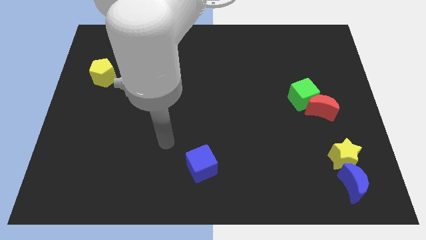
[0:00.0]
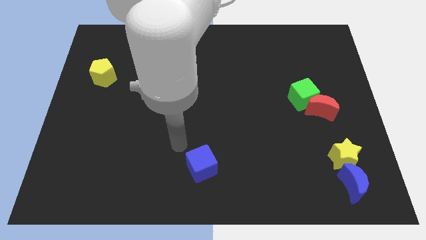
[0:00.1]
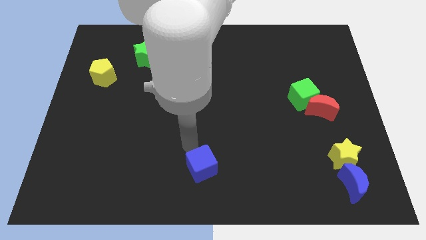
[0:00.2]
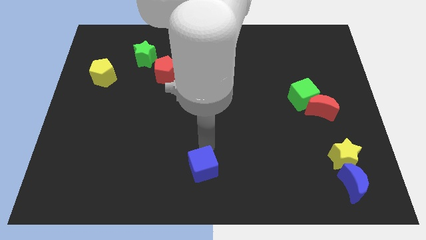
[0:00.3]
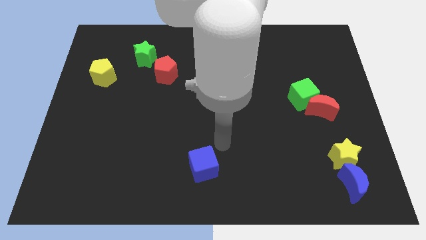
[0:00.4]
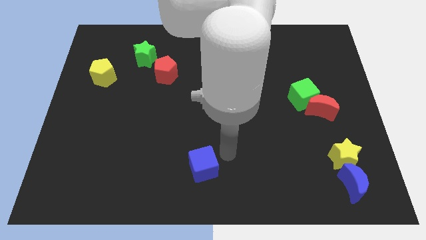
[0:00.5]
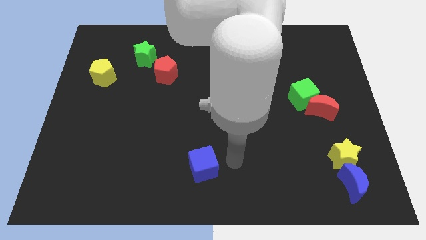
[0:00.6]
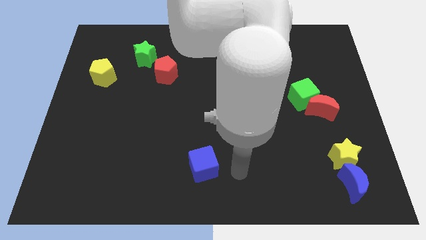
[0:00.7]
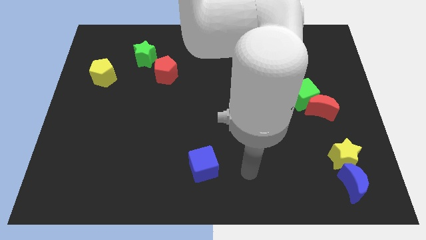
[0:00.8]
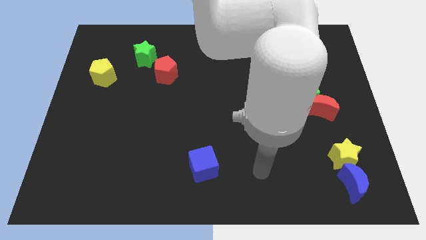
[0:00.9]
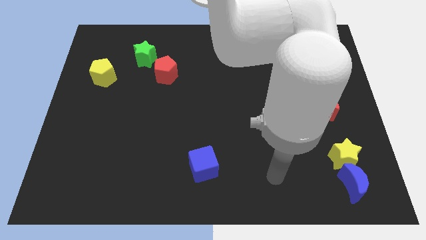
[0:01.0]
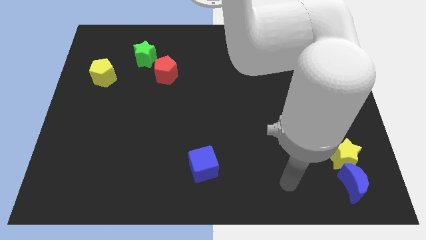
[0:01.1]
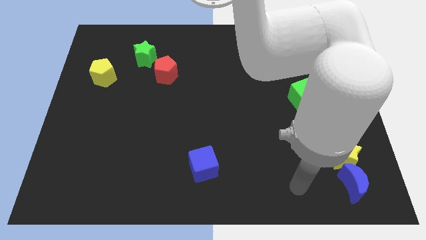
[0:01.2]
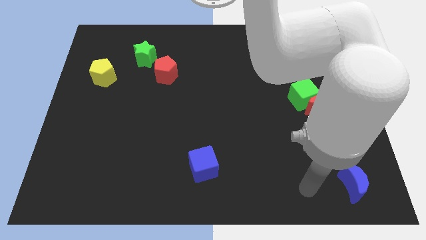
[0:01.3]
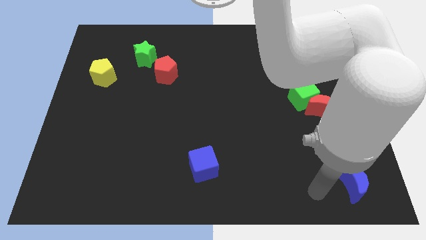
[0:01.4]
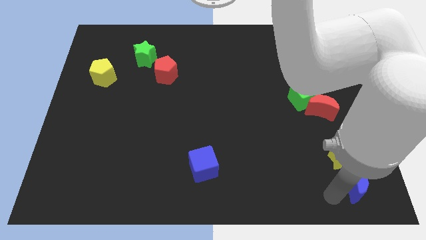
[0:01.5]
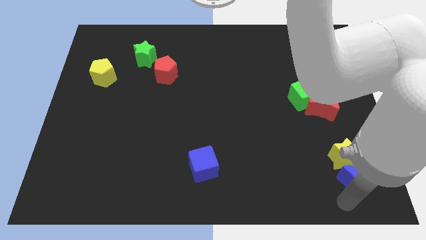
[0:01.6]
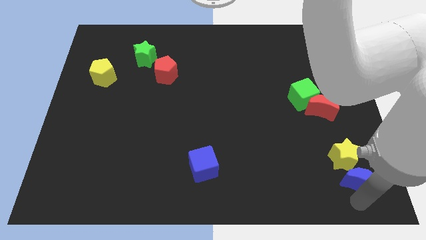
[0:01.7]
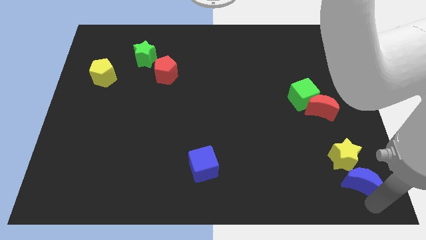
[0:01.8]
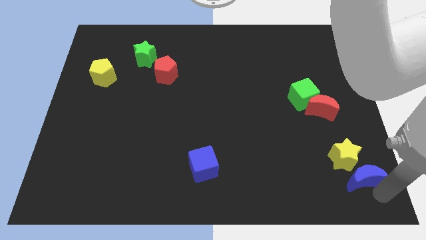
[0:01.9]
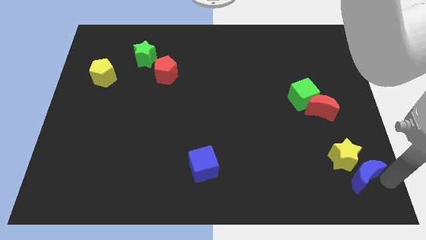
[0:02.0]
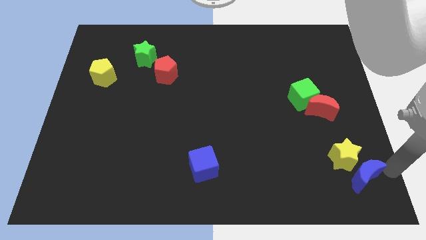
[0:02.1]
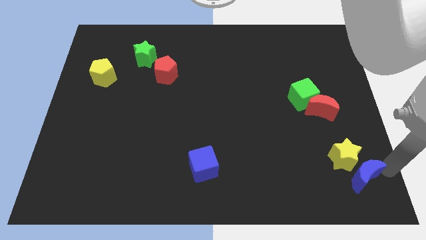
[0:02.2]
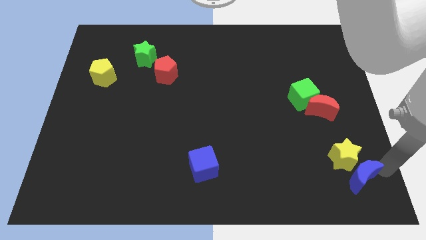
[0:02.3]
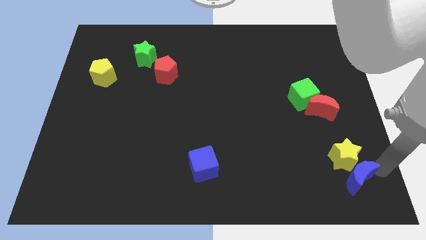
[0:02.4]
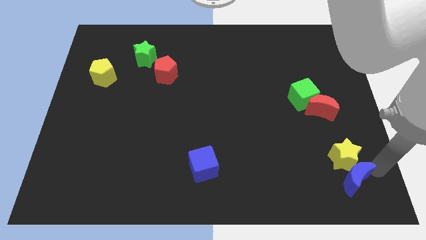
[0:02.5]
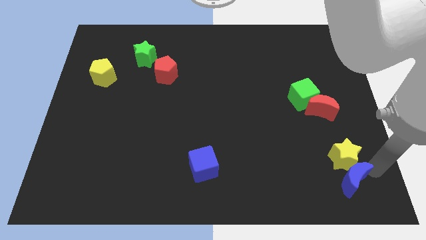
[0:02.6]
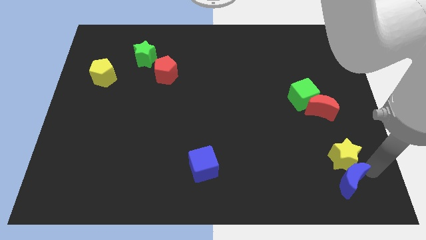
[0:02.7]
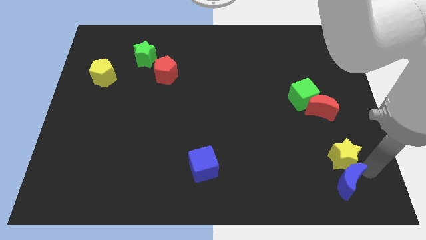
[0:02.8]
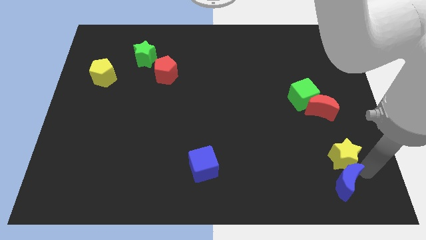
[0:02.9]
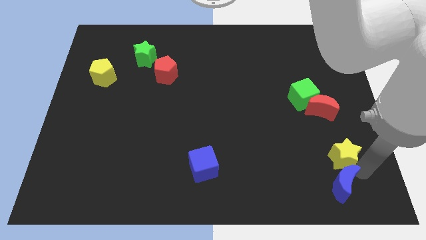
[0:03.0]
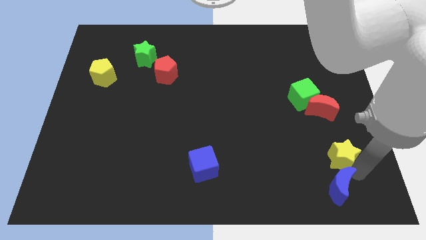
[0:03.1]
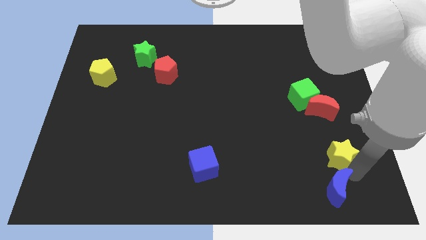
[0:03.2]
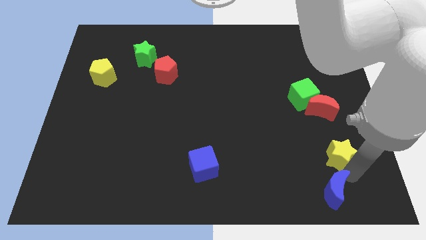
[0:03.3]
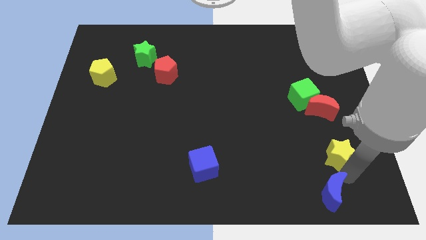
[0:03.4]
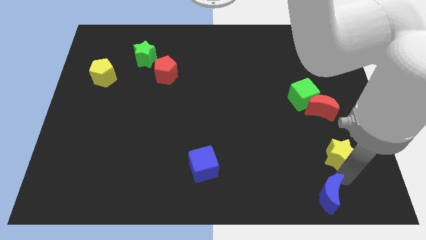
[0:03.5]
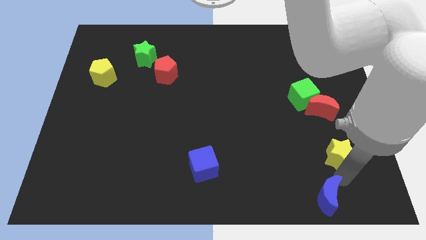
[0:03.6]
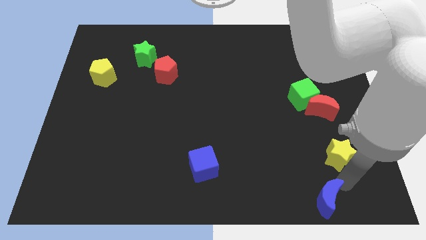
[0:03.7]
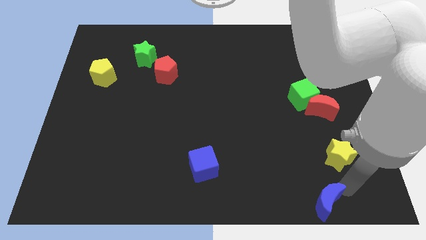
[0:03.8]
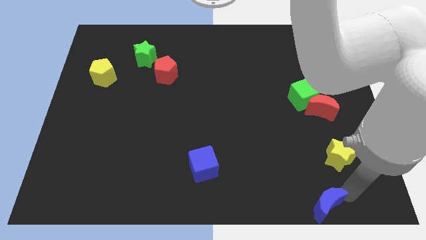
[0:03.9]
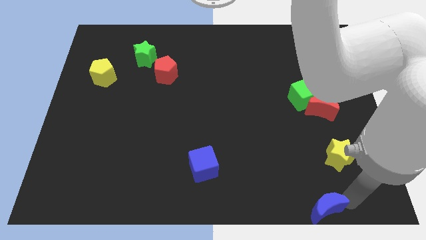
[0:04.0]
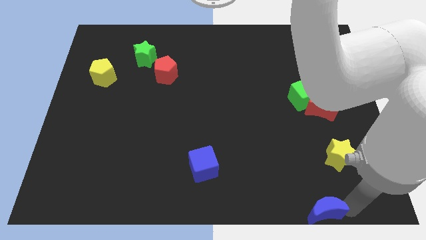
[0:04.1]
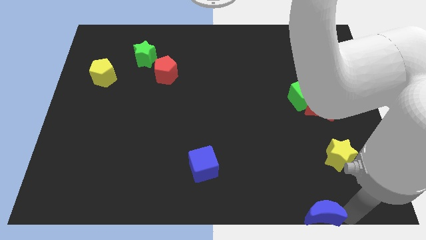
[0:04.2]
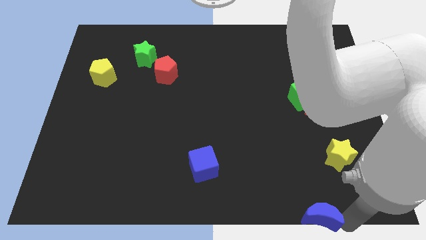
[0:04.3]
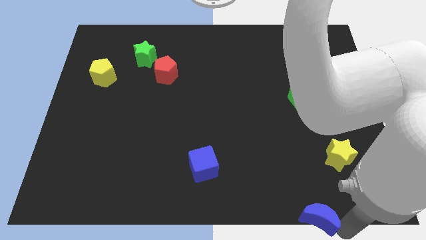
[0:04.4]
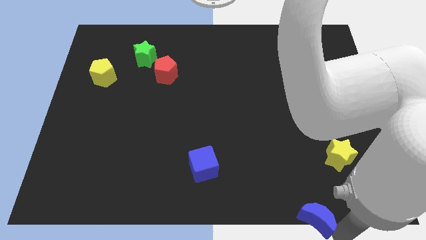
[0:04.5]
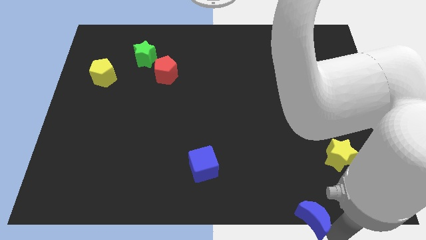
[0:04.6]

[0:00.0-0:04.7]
push the blue moon a bit left

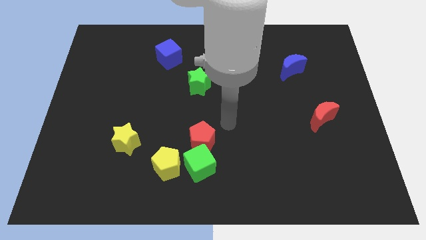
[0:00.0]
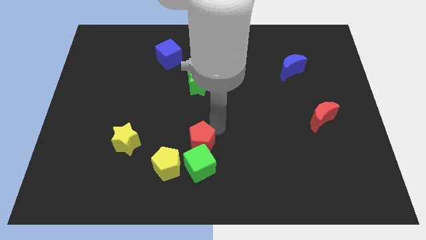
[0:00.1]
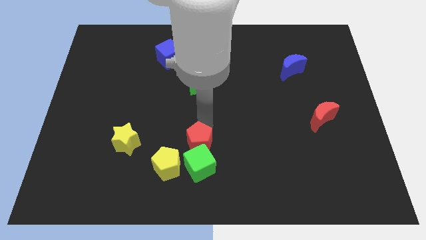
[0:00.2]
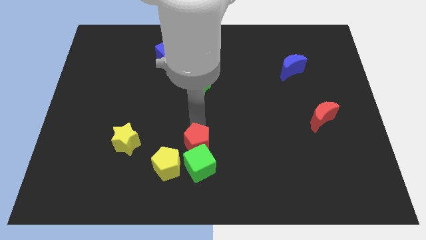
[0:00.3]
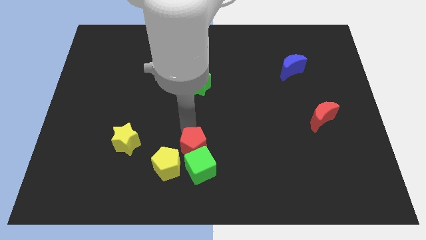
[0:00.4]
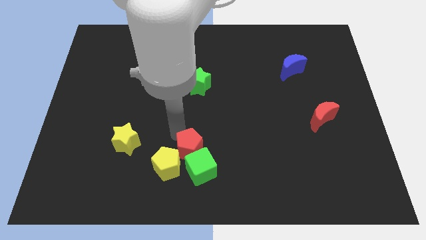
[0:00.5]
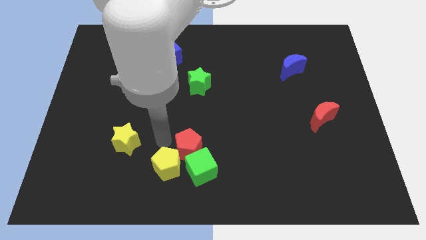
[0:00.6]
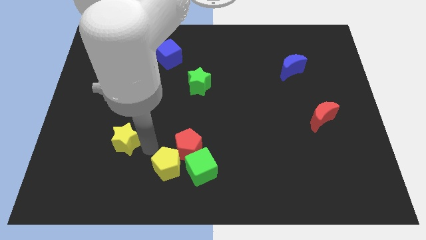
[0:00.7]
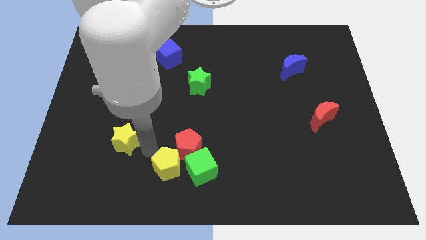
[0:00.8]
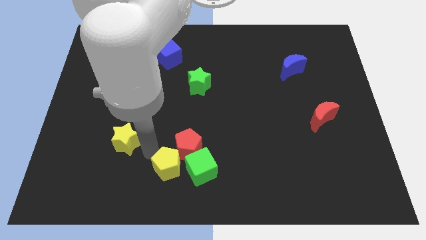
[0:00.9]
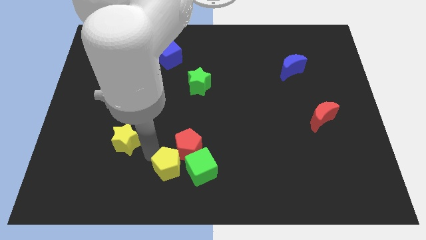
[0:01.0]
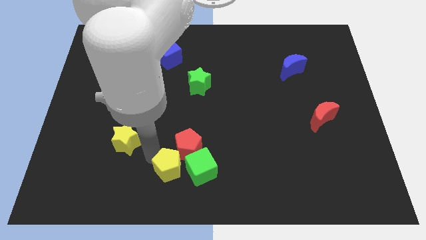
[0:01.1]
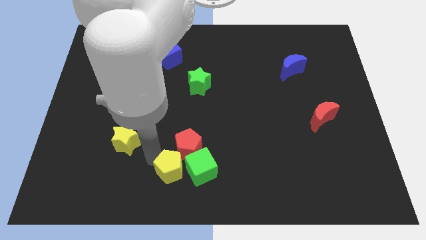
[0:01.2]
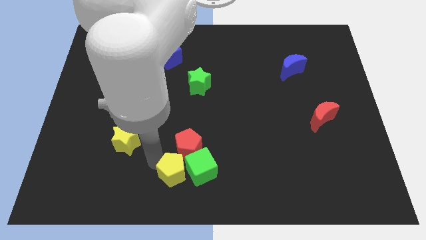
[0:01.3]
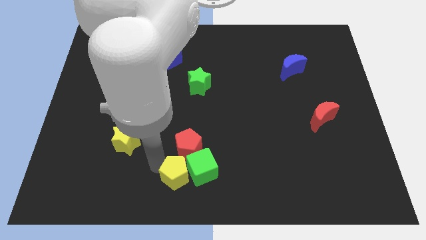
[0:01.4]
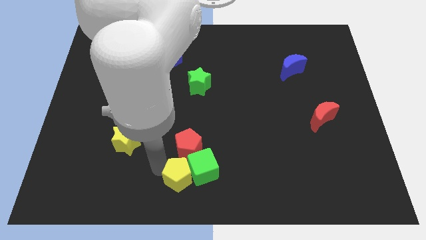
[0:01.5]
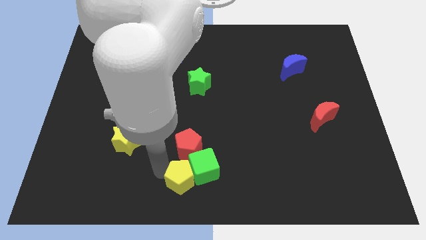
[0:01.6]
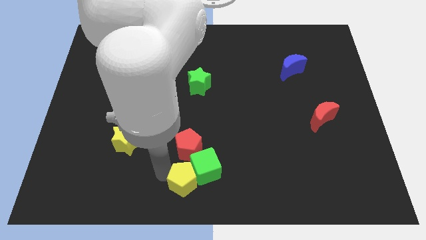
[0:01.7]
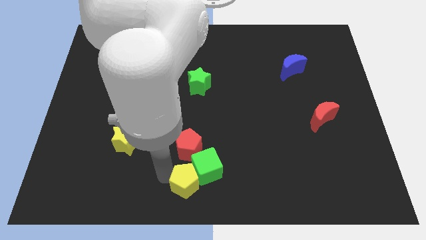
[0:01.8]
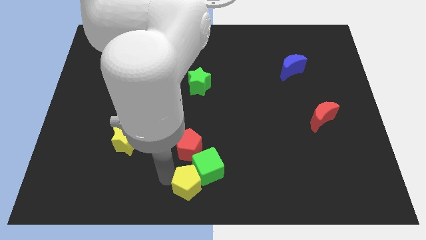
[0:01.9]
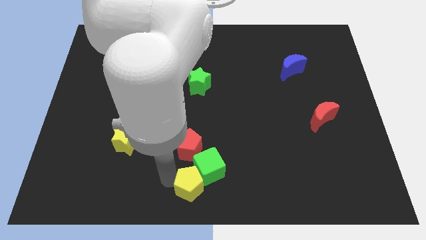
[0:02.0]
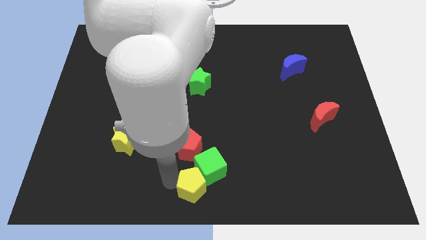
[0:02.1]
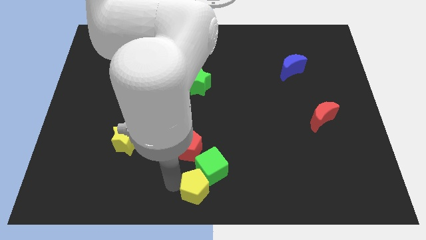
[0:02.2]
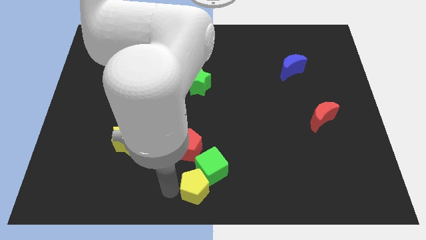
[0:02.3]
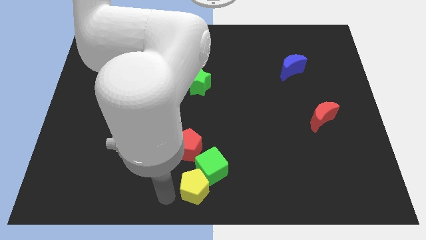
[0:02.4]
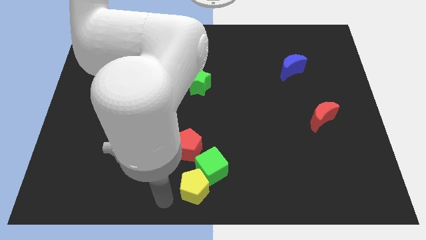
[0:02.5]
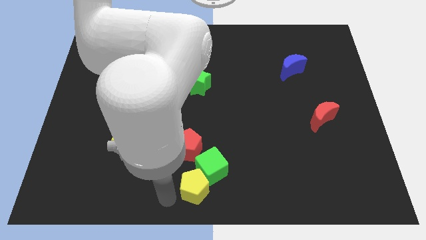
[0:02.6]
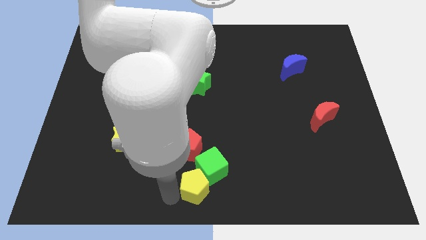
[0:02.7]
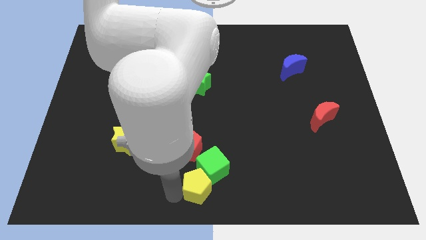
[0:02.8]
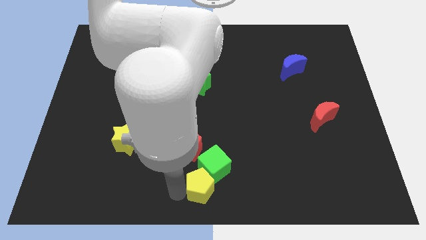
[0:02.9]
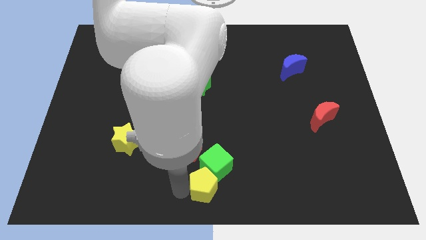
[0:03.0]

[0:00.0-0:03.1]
move the yellow pentagon right a little
